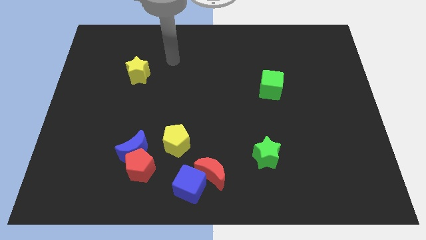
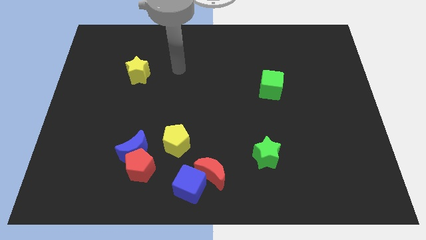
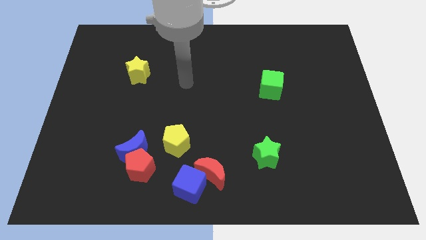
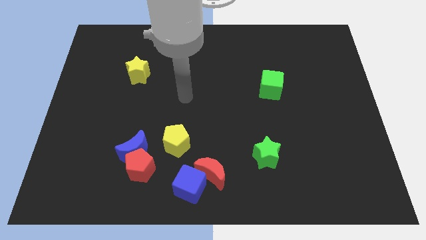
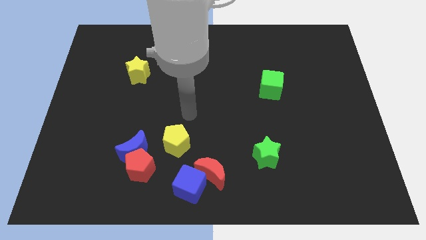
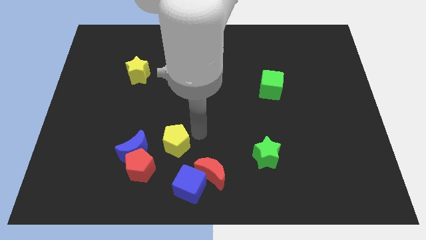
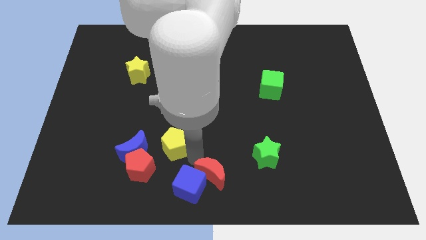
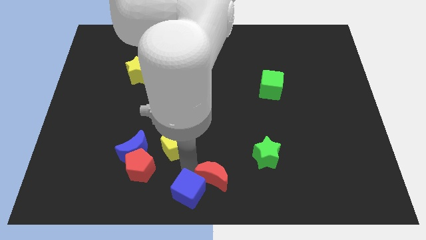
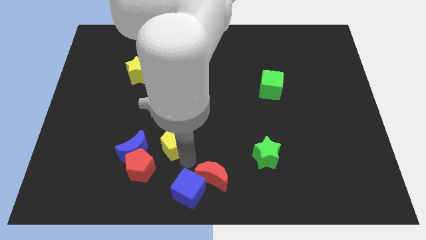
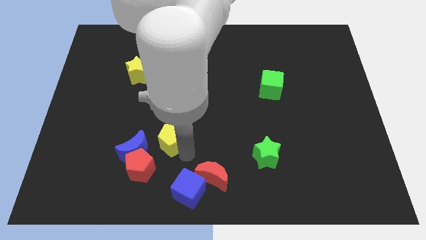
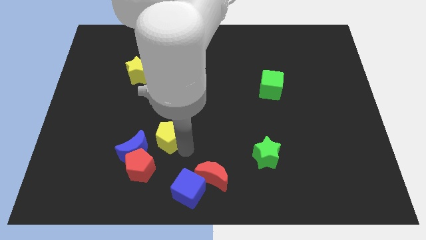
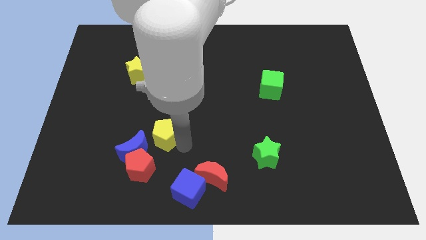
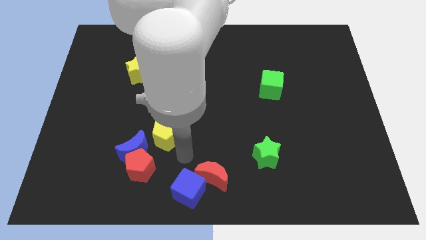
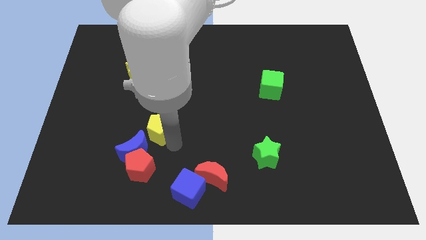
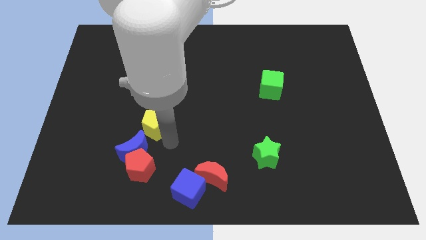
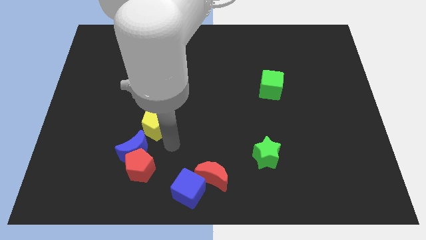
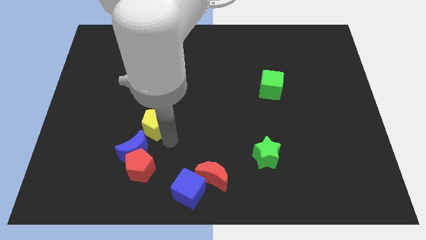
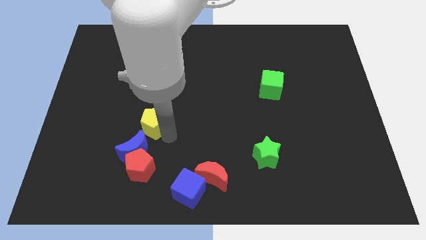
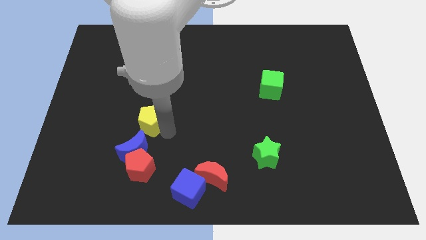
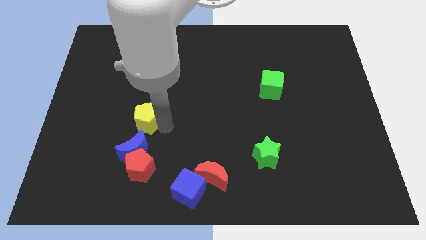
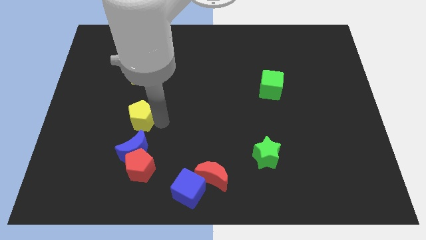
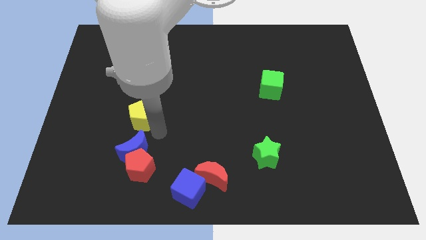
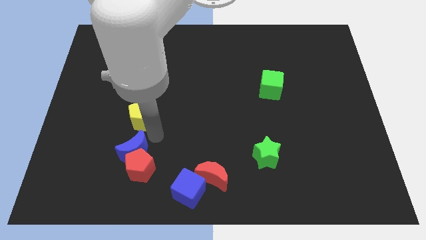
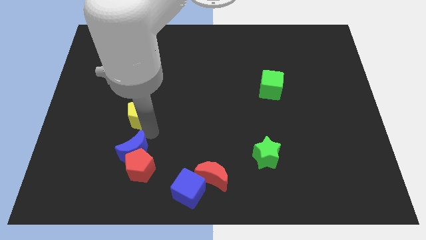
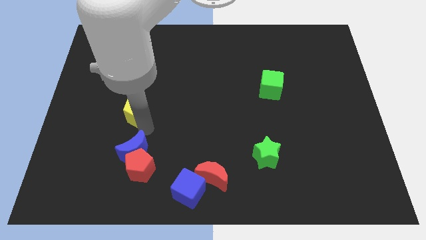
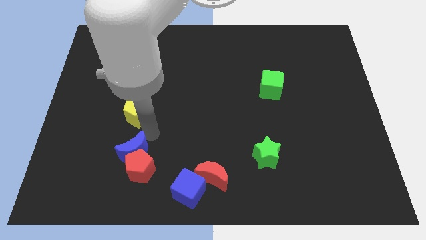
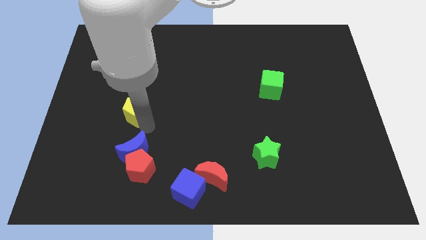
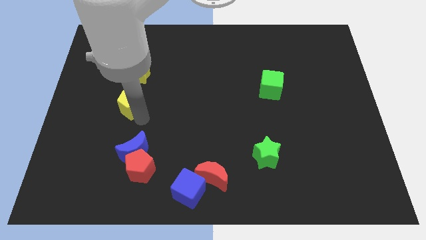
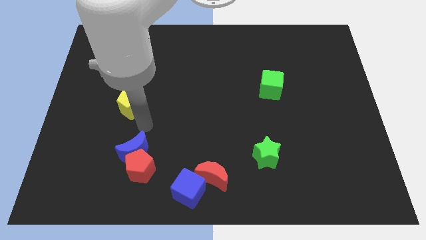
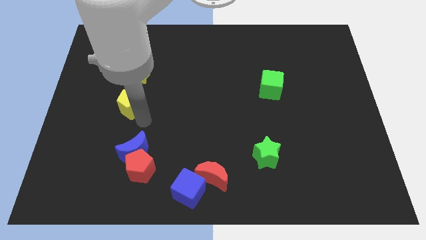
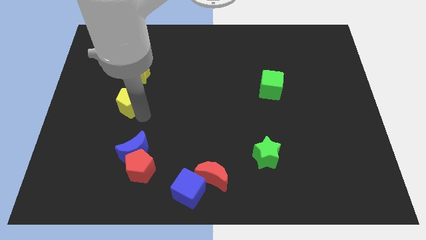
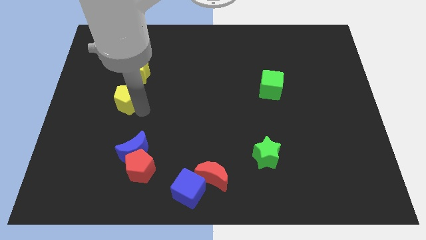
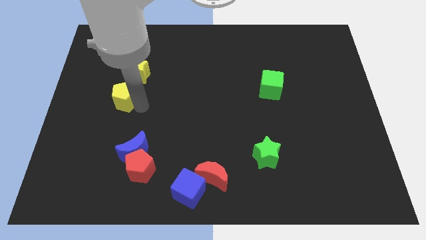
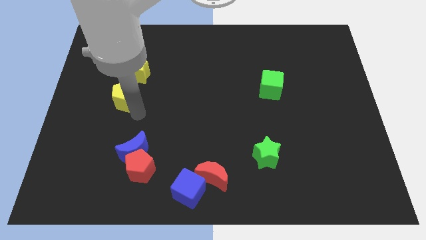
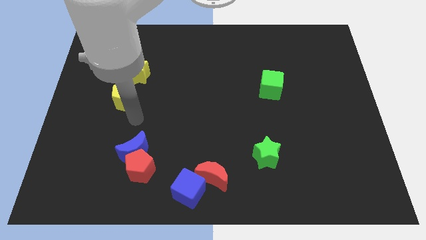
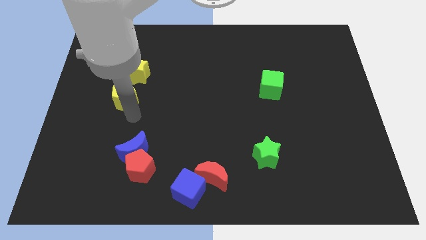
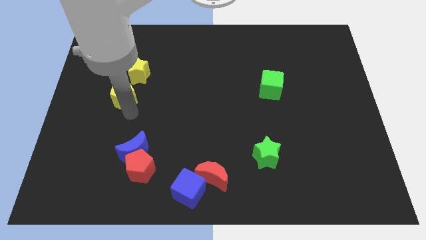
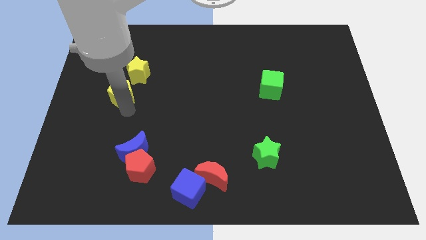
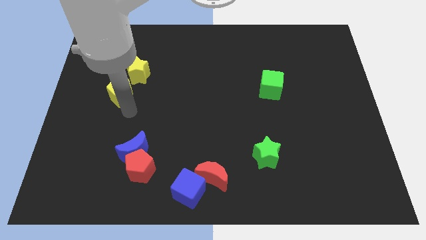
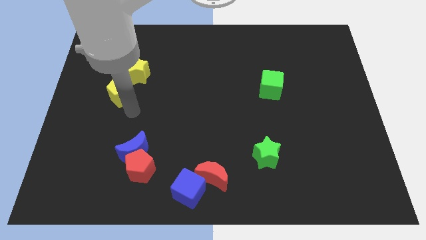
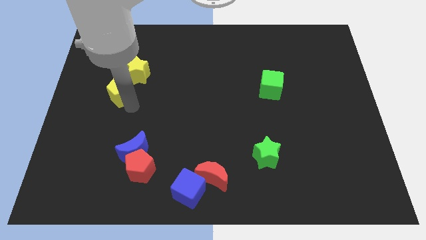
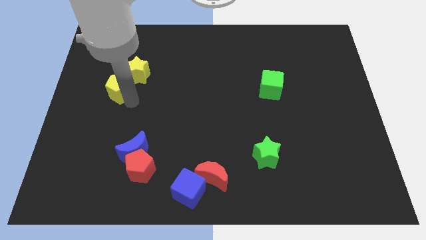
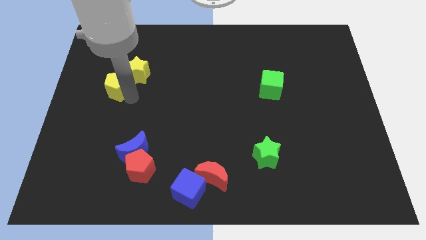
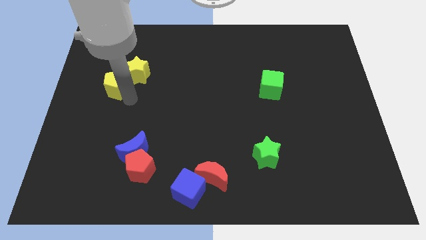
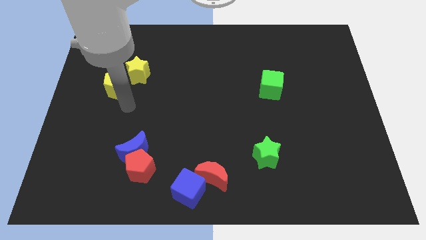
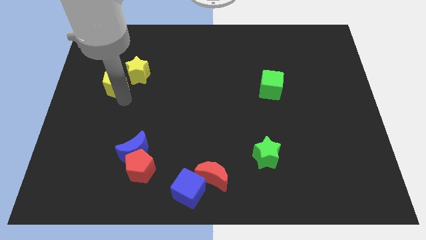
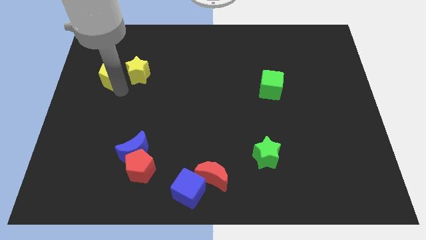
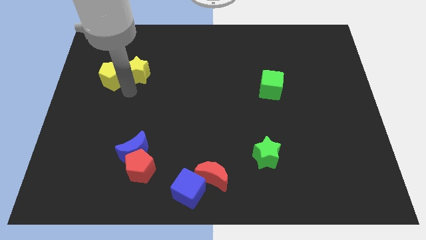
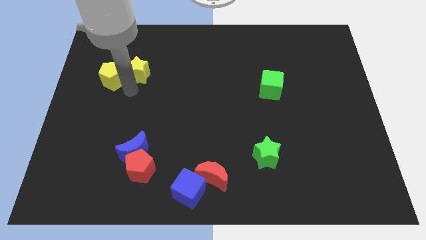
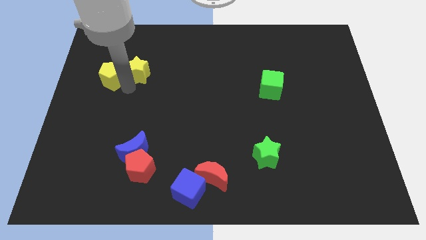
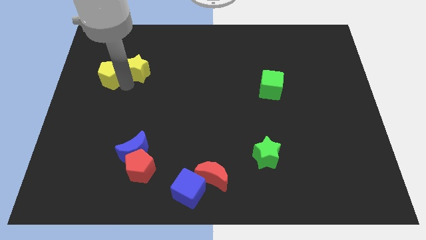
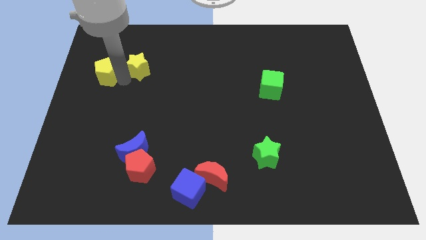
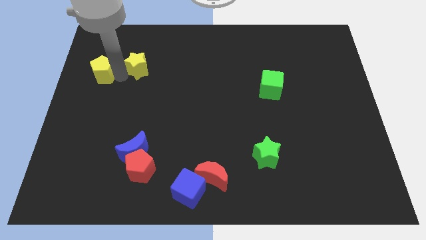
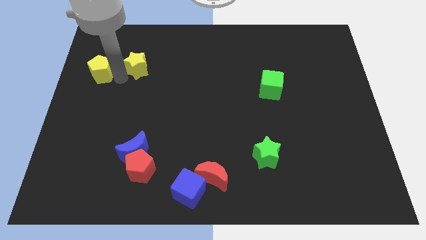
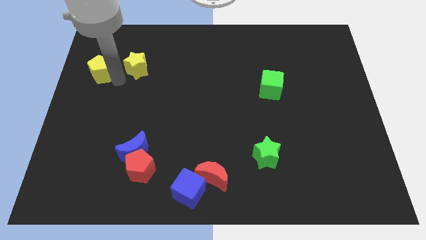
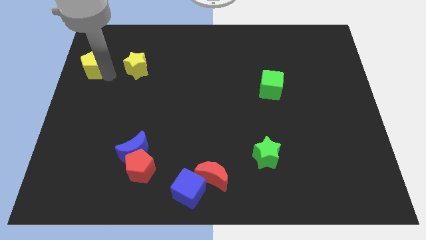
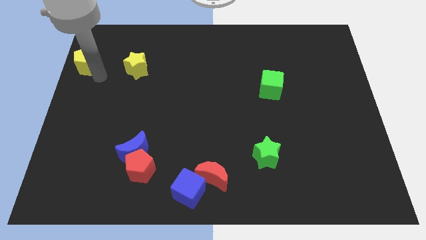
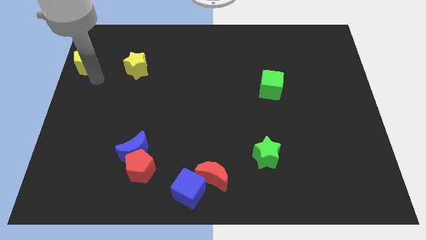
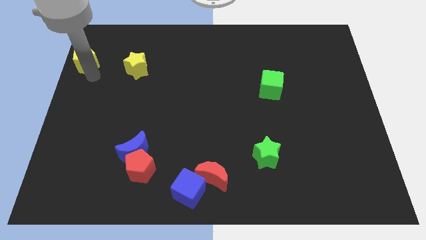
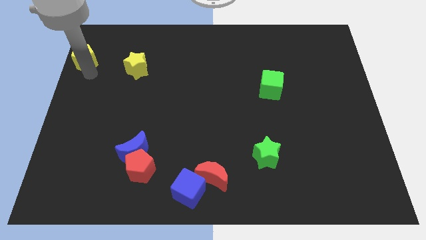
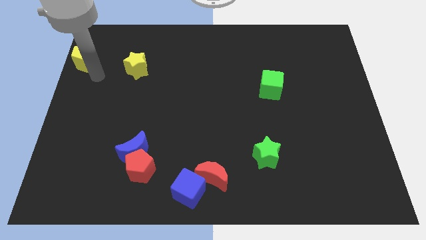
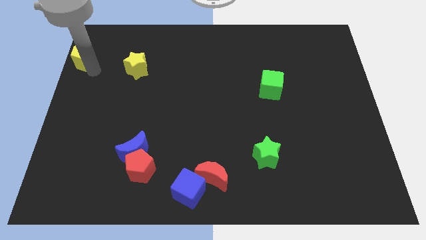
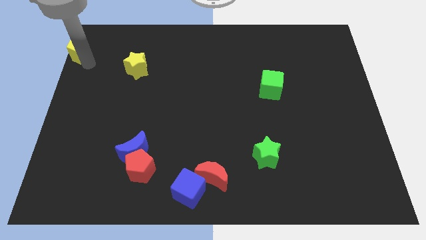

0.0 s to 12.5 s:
put the yellow pentagon to the top left of the board
